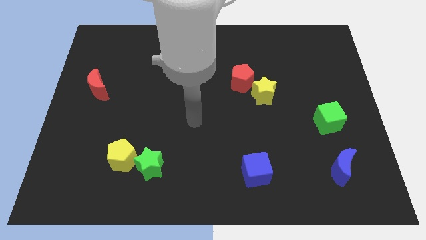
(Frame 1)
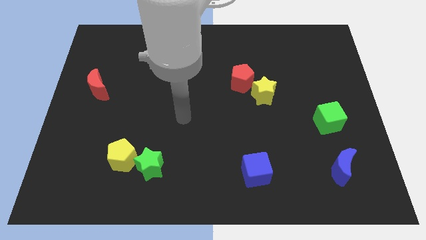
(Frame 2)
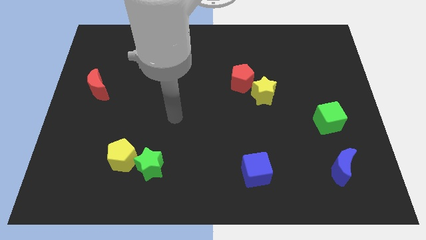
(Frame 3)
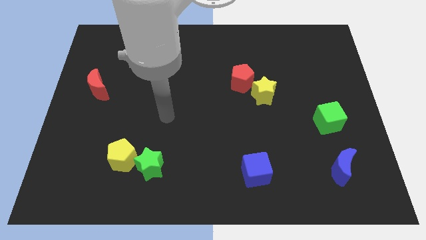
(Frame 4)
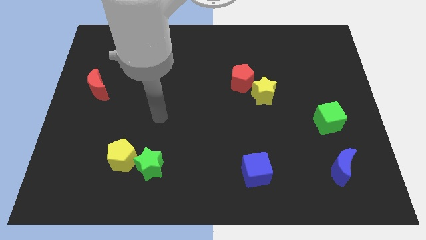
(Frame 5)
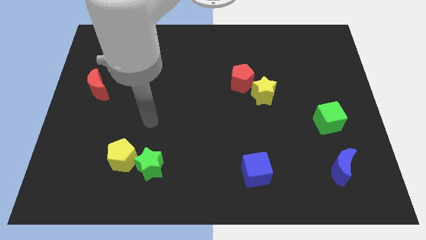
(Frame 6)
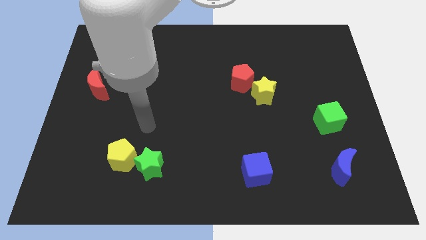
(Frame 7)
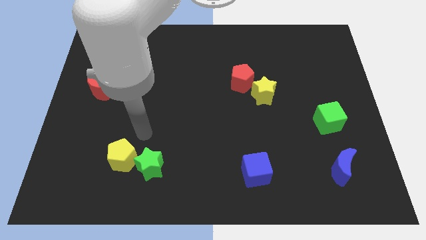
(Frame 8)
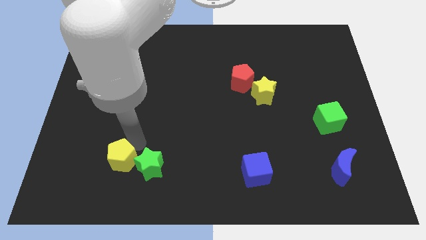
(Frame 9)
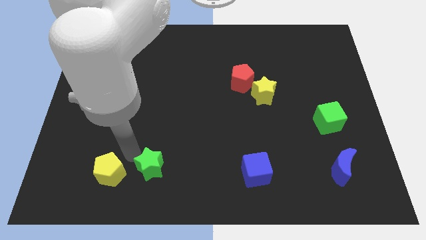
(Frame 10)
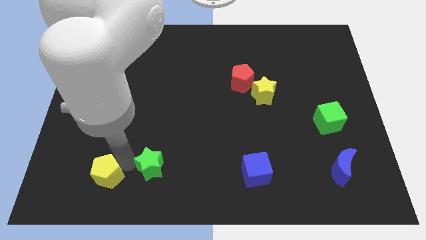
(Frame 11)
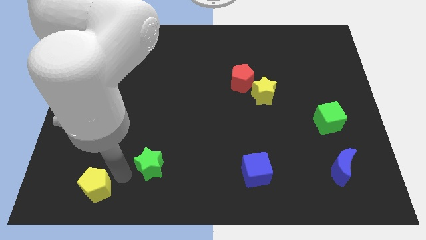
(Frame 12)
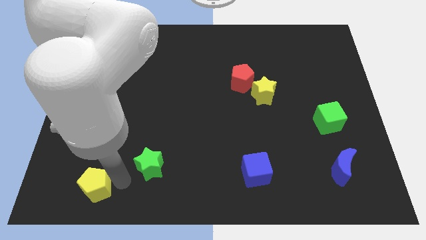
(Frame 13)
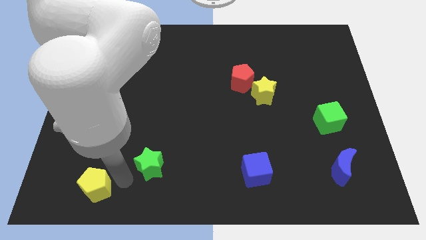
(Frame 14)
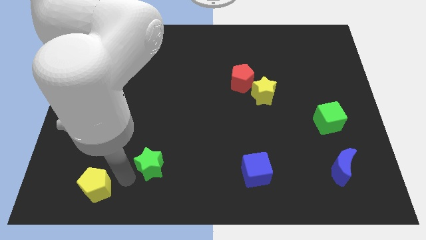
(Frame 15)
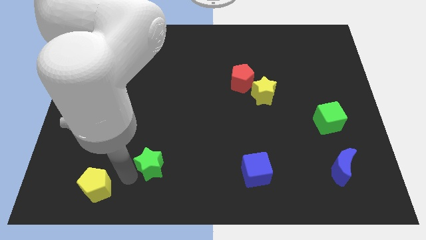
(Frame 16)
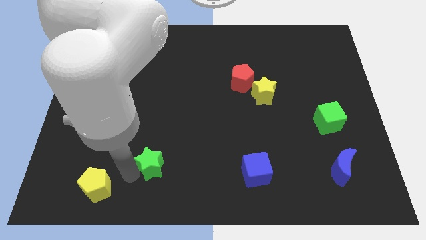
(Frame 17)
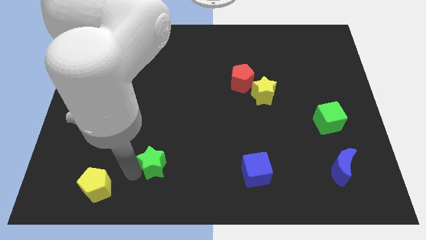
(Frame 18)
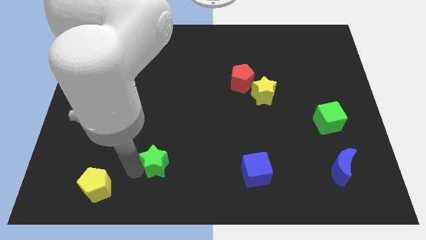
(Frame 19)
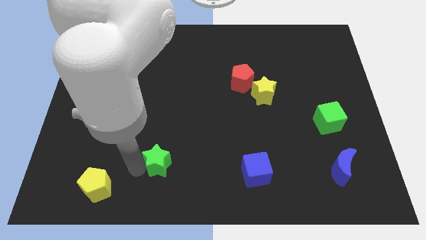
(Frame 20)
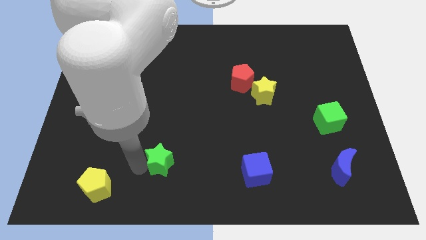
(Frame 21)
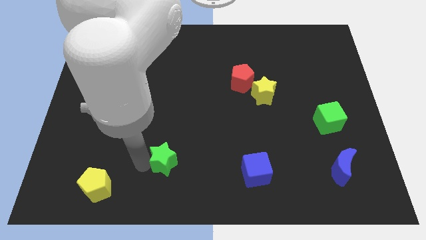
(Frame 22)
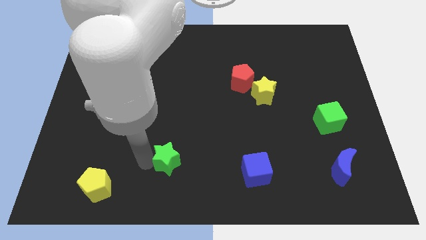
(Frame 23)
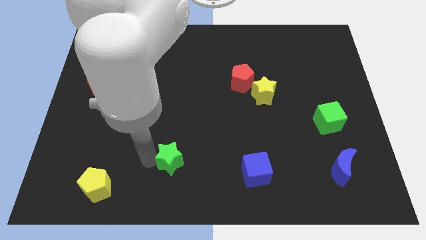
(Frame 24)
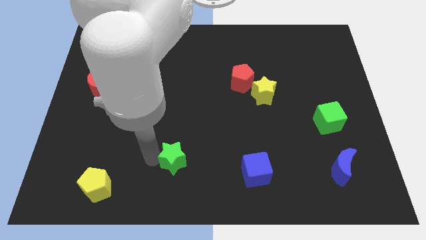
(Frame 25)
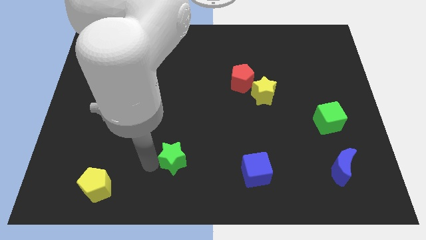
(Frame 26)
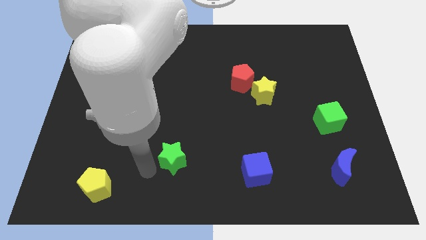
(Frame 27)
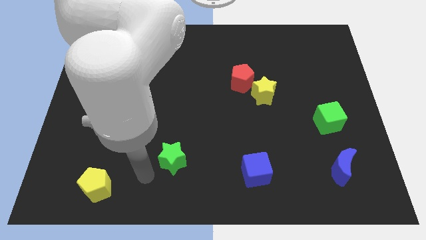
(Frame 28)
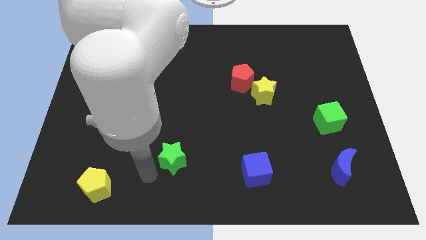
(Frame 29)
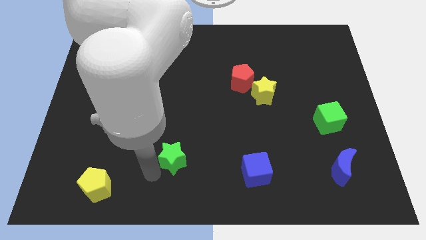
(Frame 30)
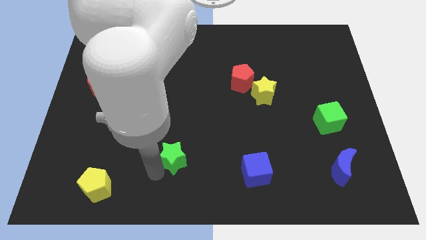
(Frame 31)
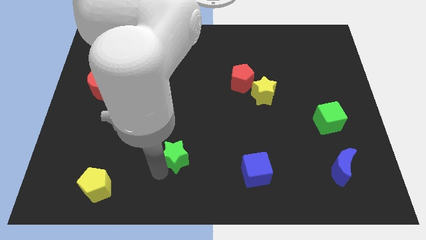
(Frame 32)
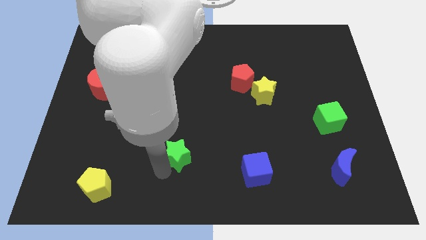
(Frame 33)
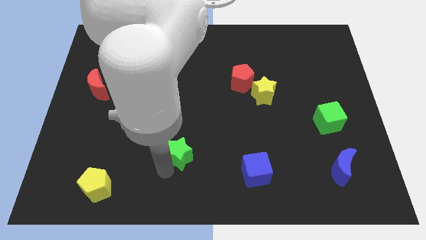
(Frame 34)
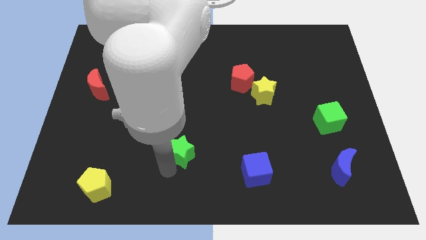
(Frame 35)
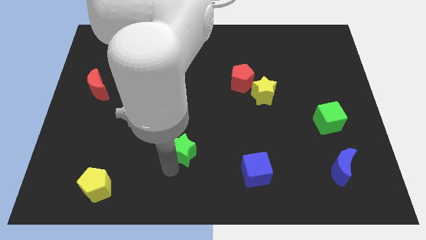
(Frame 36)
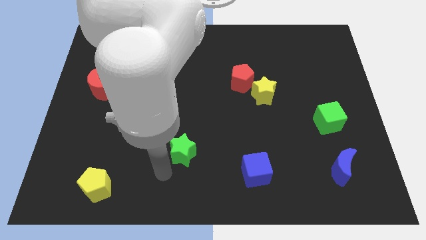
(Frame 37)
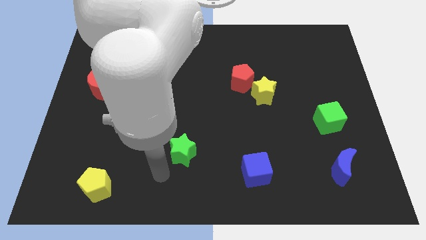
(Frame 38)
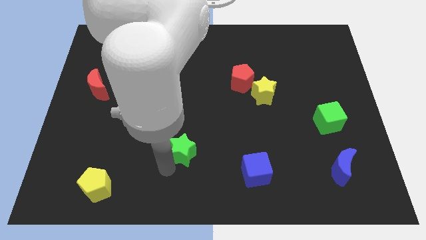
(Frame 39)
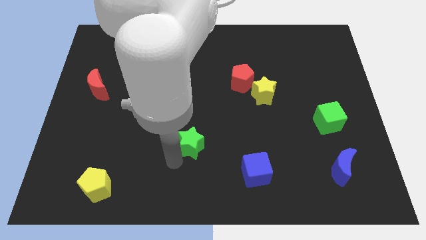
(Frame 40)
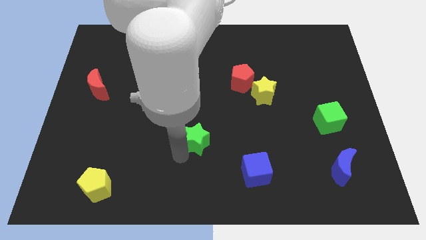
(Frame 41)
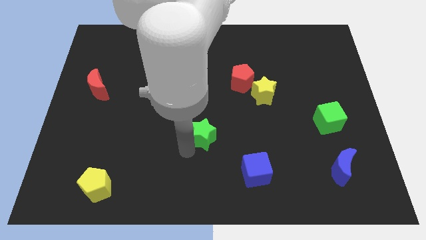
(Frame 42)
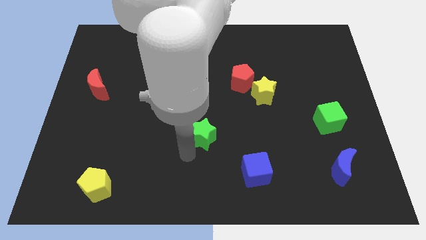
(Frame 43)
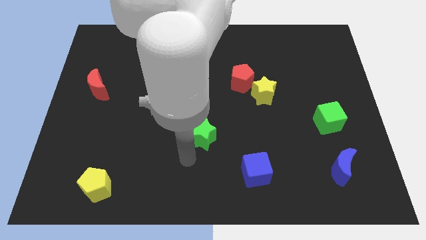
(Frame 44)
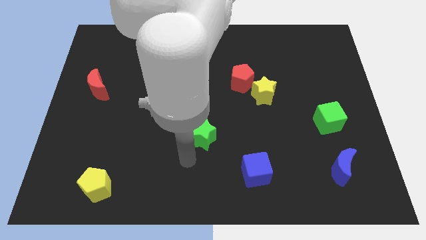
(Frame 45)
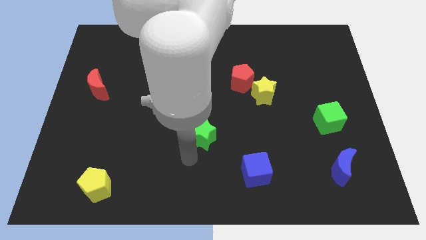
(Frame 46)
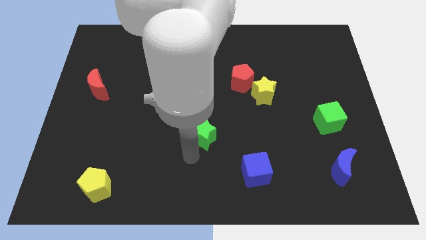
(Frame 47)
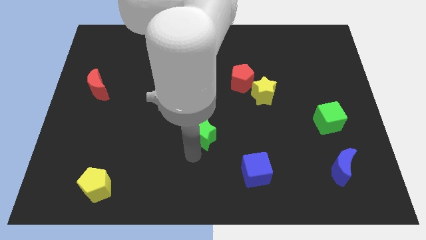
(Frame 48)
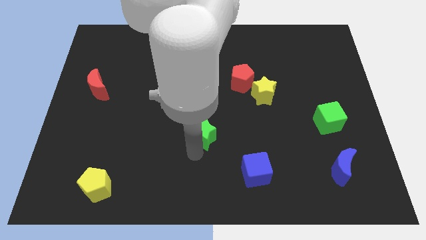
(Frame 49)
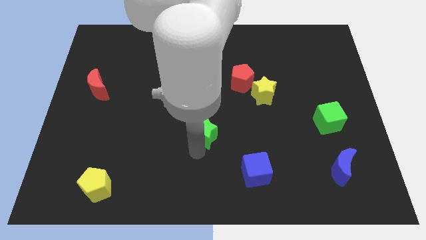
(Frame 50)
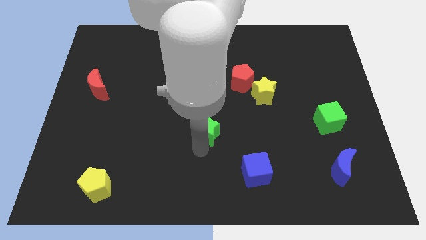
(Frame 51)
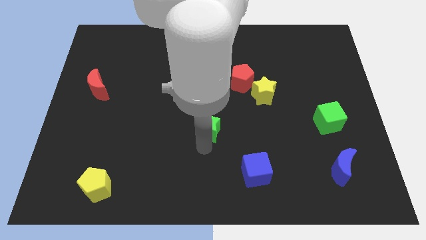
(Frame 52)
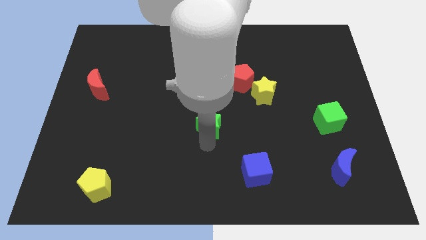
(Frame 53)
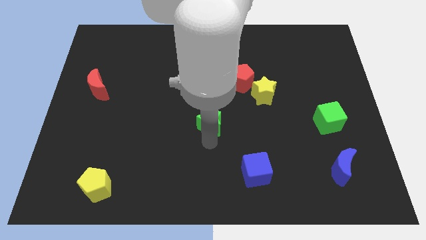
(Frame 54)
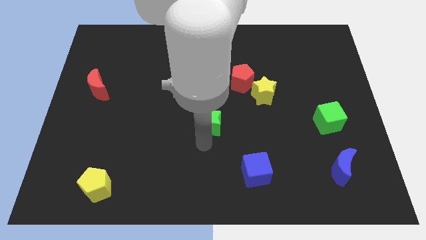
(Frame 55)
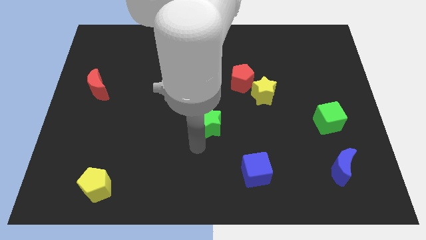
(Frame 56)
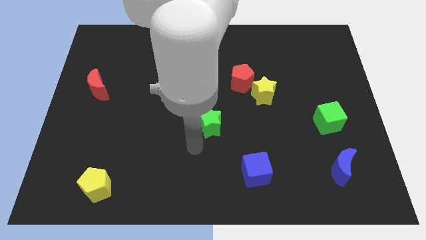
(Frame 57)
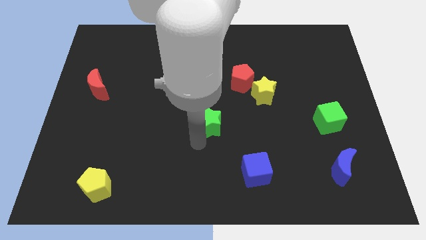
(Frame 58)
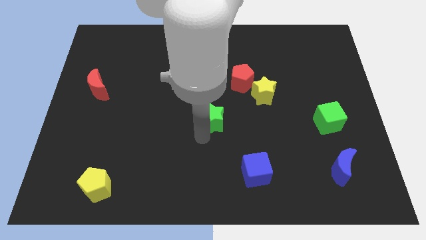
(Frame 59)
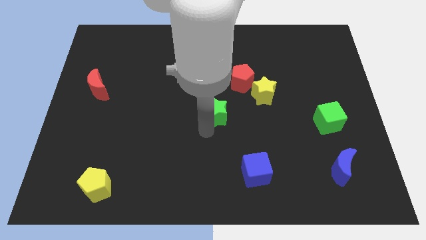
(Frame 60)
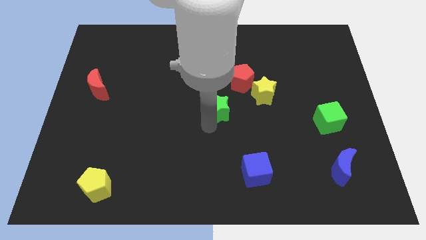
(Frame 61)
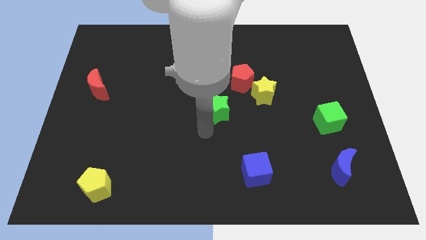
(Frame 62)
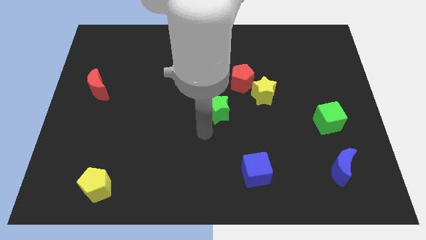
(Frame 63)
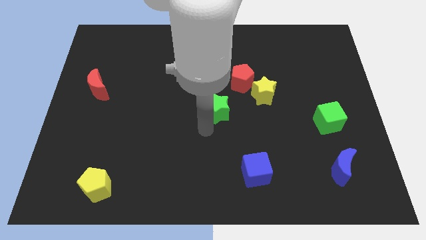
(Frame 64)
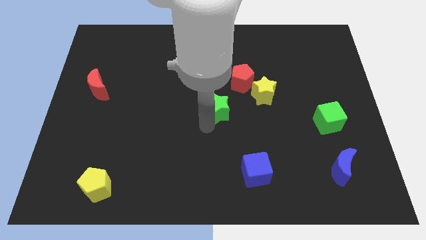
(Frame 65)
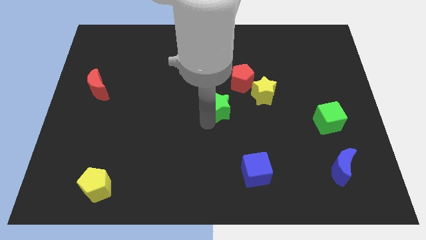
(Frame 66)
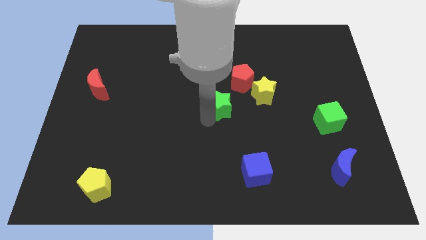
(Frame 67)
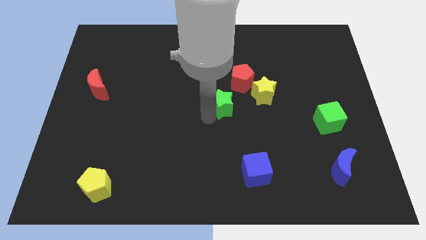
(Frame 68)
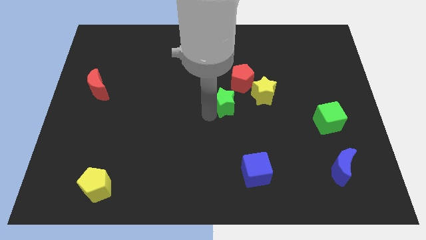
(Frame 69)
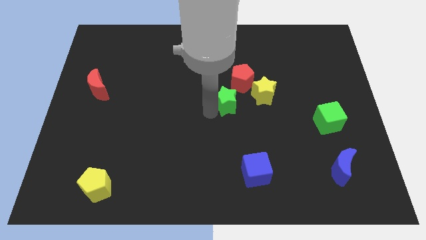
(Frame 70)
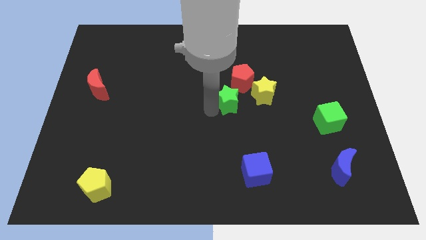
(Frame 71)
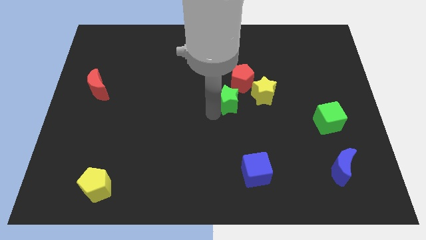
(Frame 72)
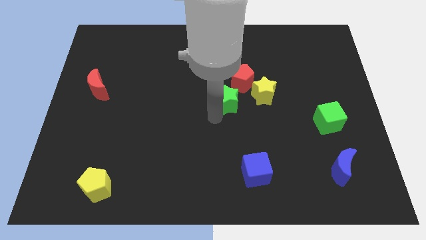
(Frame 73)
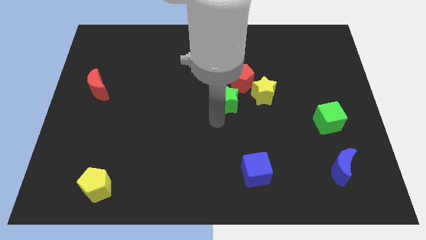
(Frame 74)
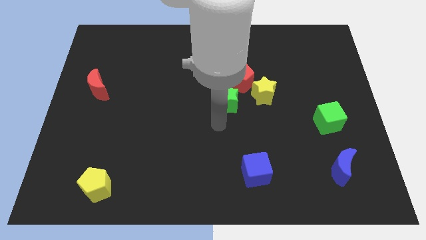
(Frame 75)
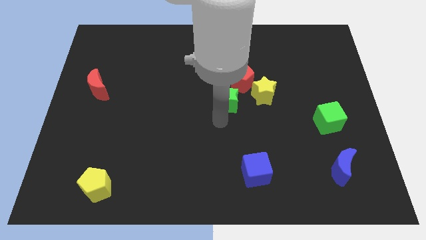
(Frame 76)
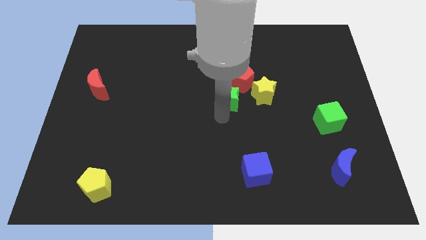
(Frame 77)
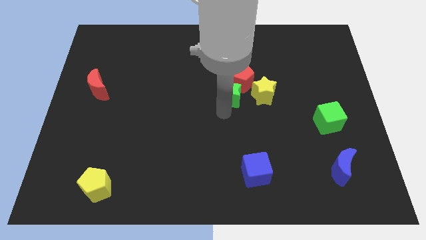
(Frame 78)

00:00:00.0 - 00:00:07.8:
put the green star next to the red pentagon
